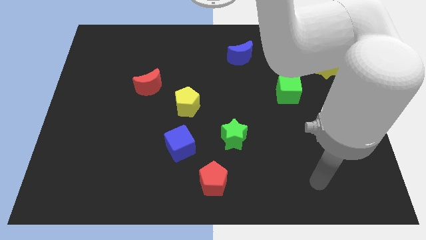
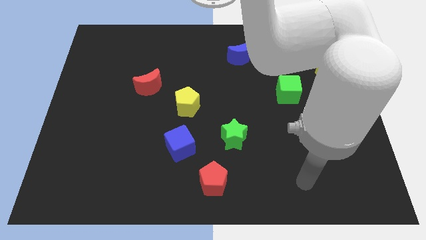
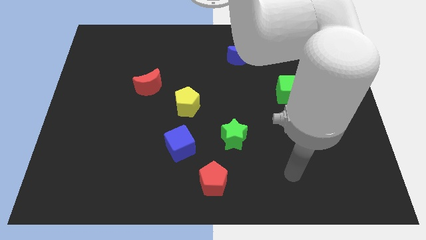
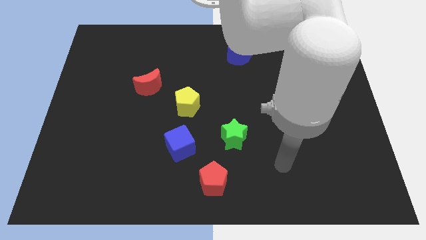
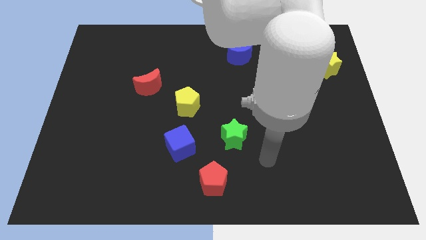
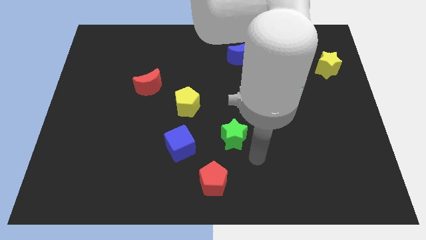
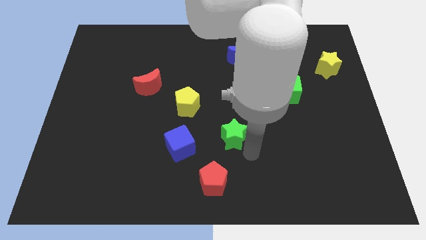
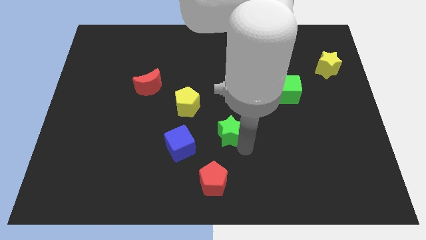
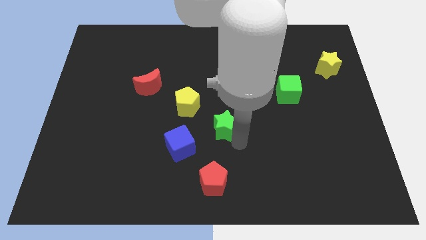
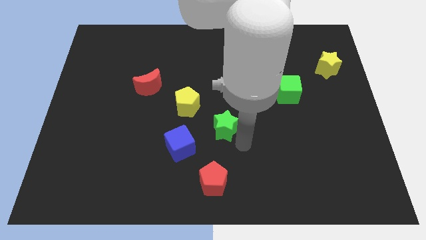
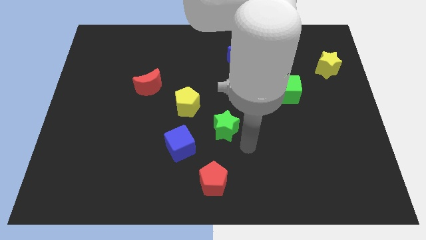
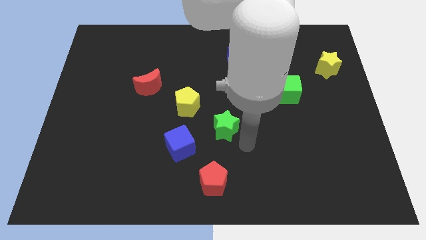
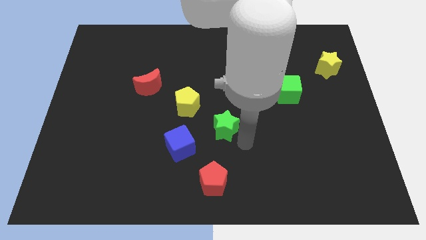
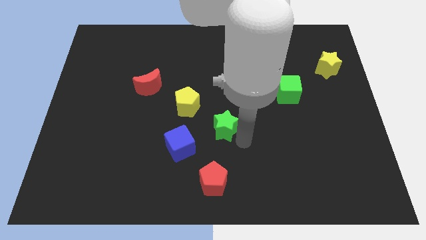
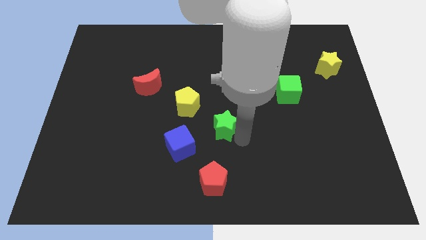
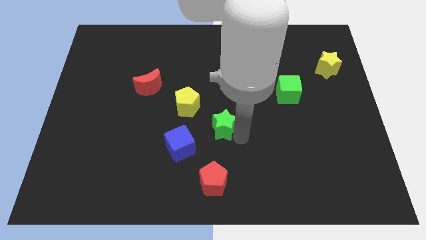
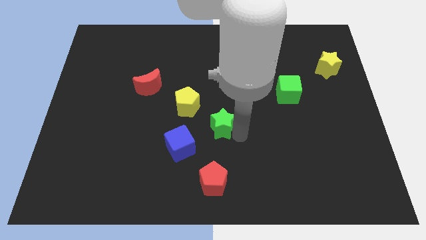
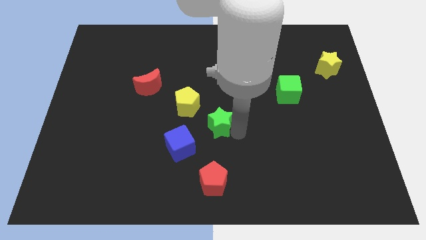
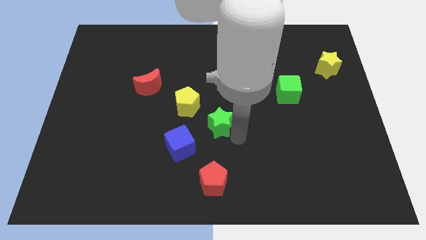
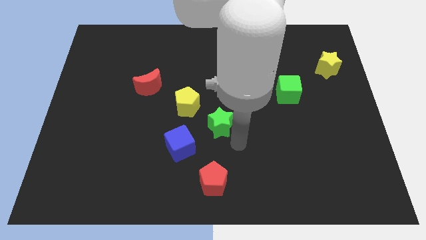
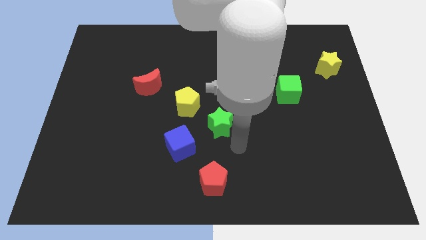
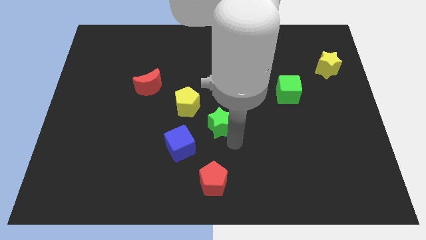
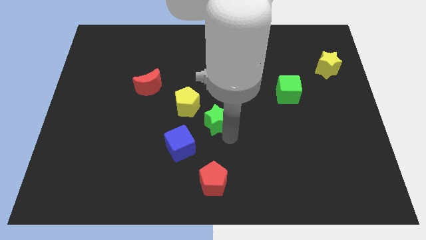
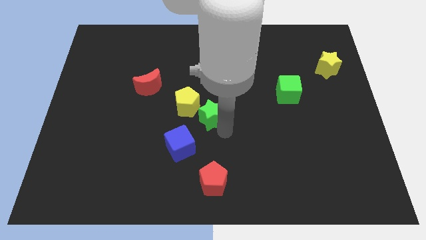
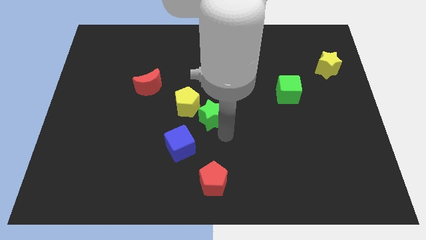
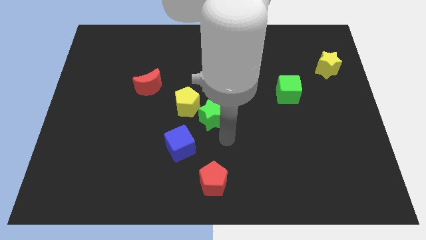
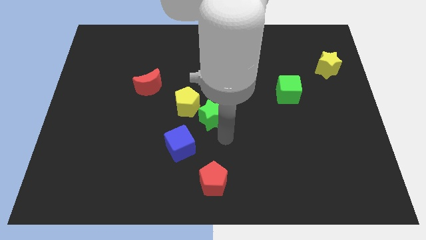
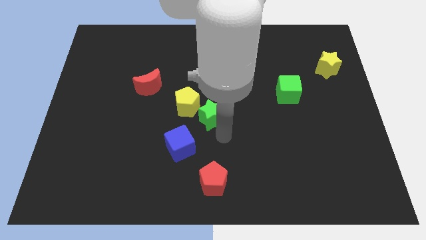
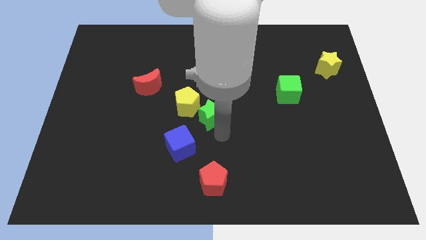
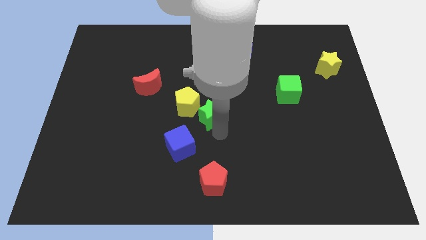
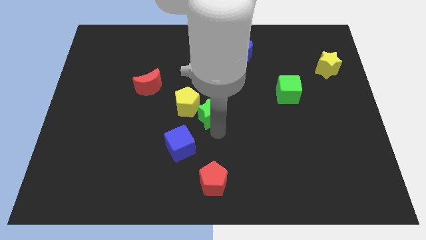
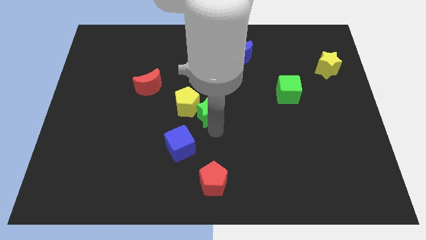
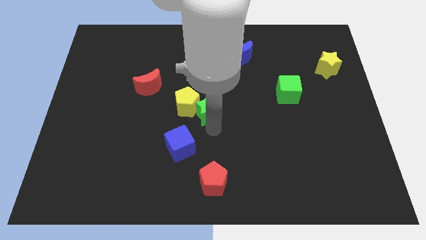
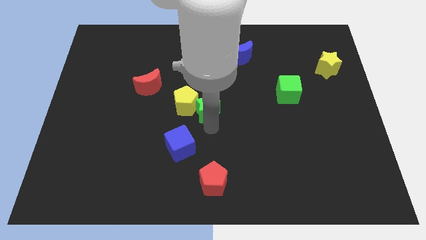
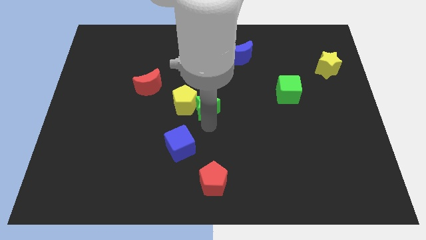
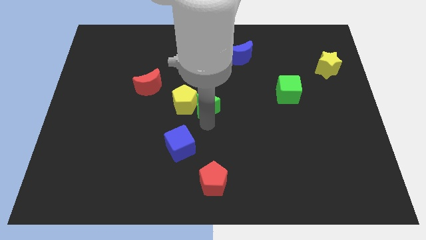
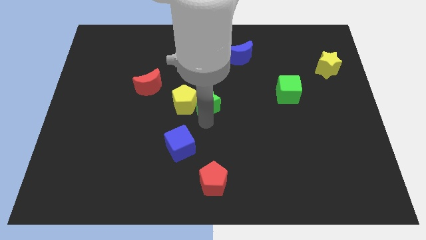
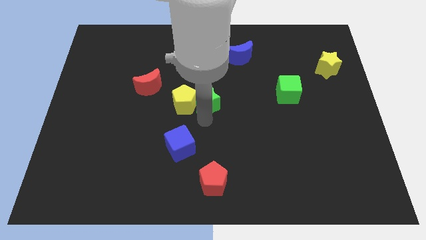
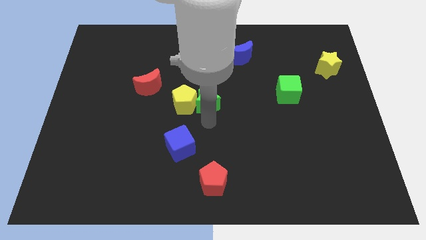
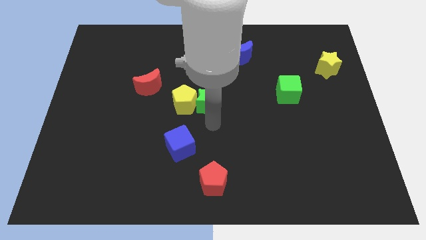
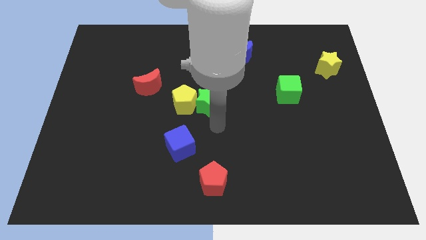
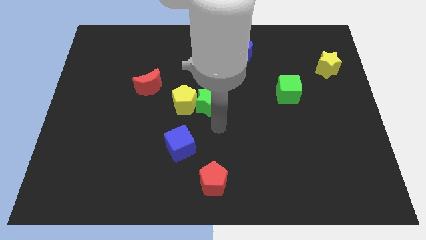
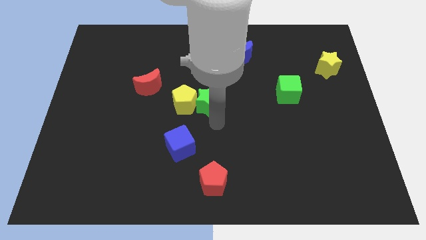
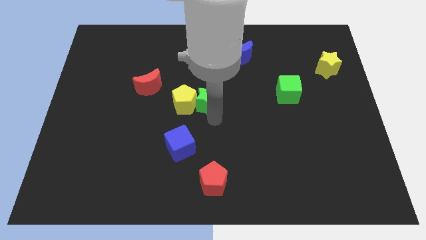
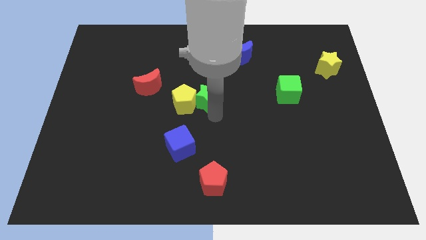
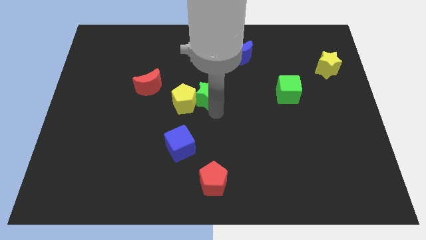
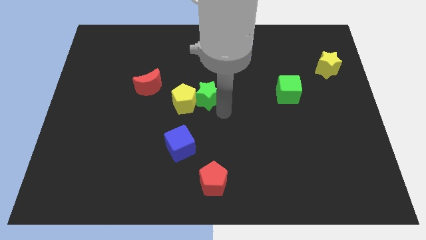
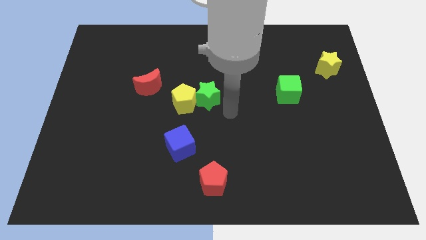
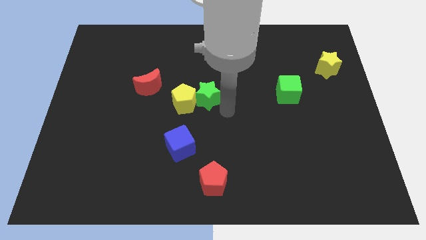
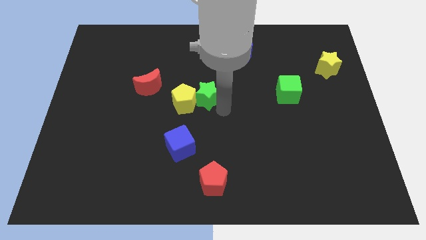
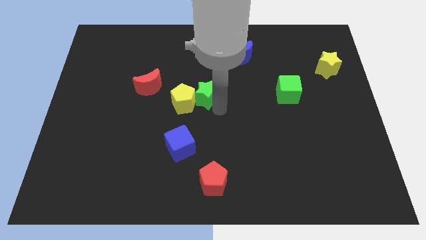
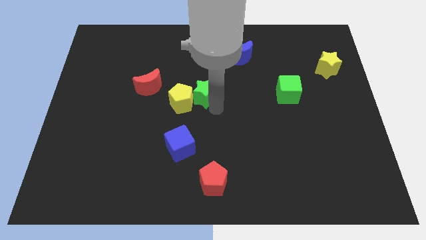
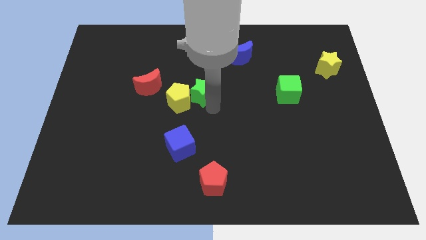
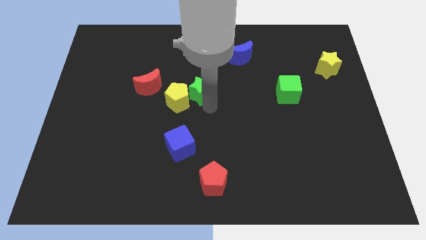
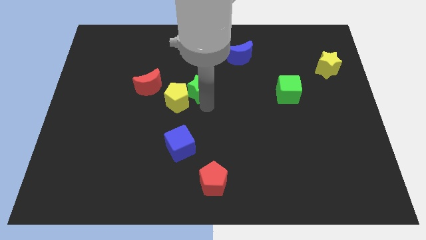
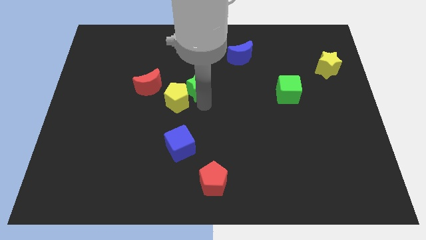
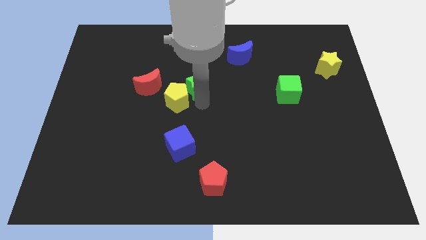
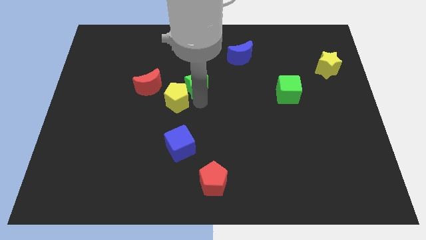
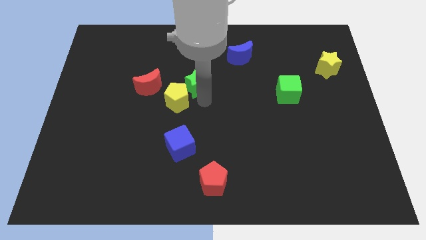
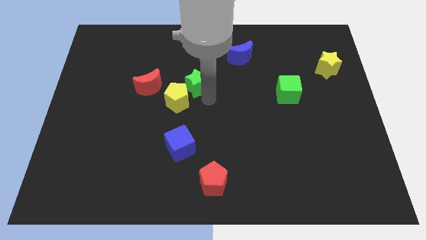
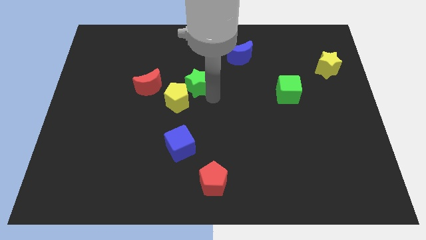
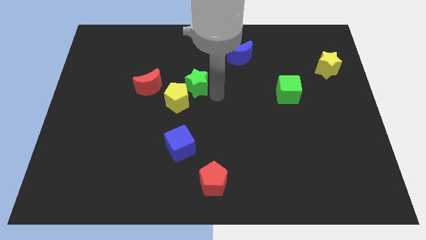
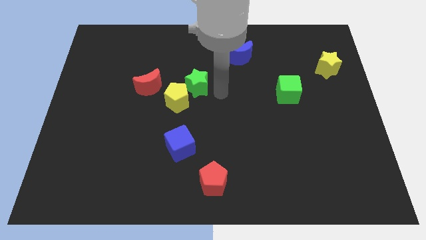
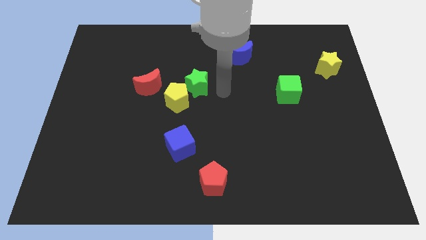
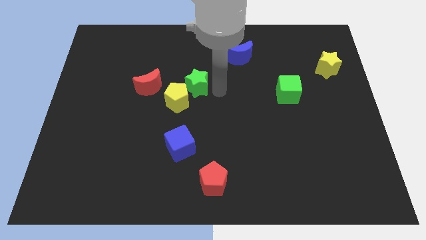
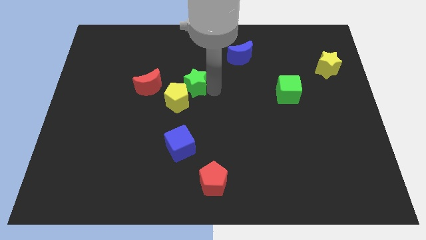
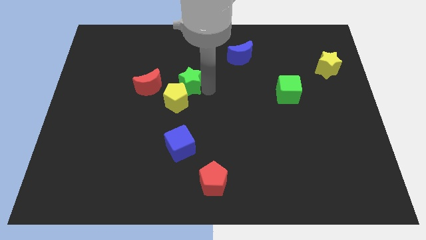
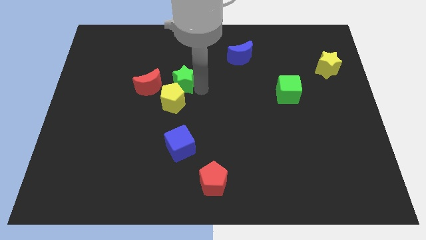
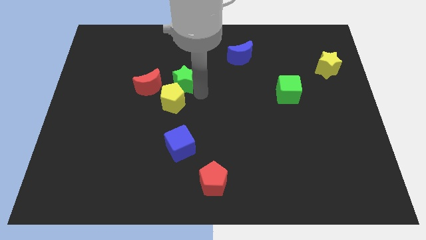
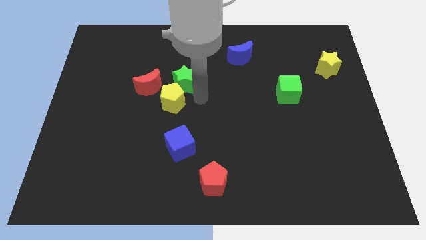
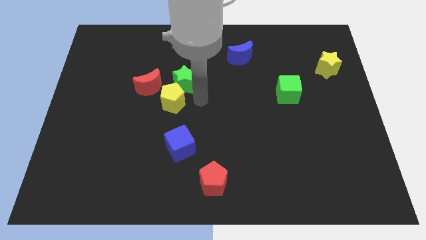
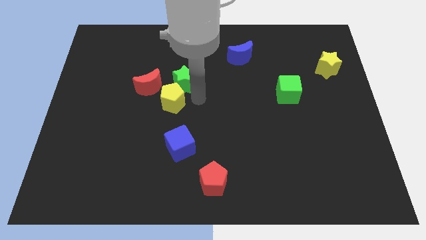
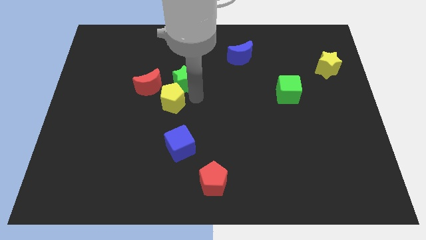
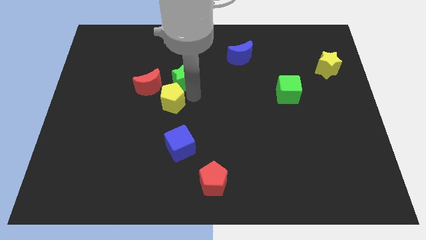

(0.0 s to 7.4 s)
slide the green star to the top right side of the red moon
